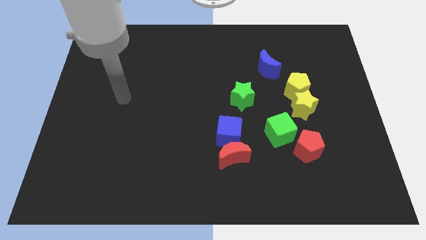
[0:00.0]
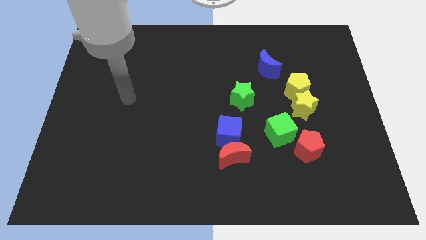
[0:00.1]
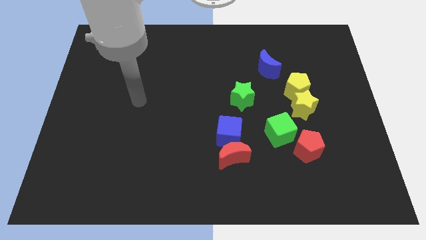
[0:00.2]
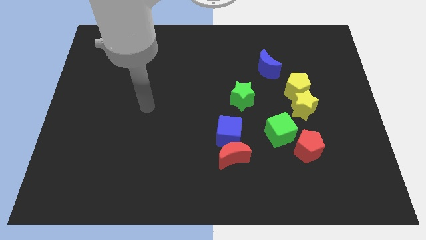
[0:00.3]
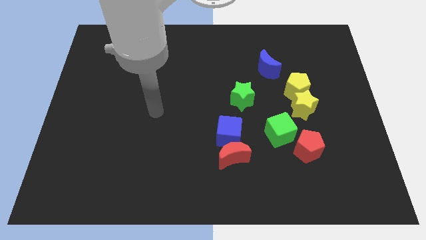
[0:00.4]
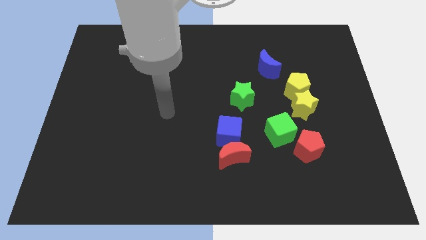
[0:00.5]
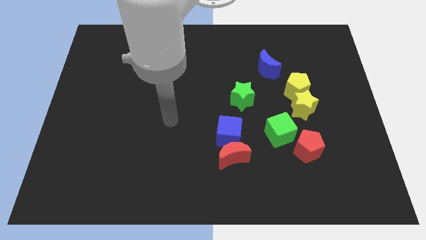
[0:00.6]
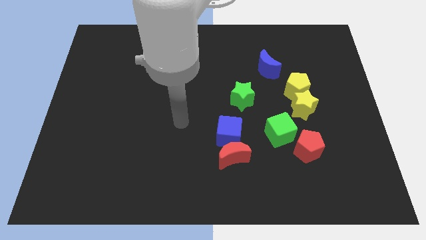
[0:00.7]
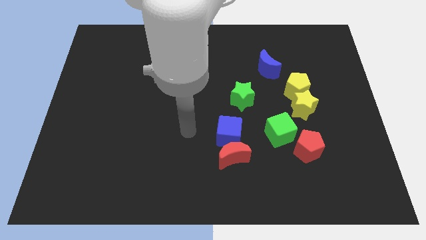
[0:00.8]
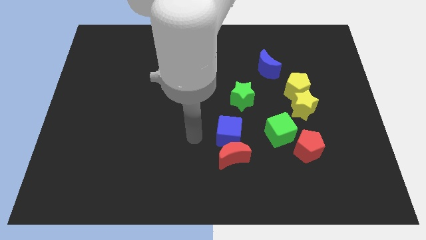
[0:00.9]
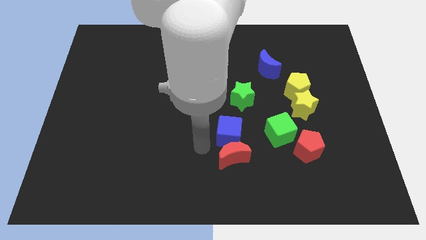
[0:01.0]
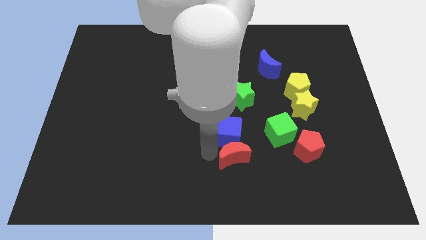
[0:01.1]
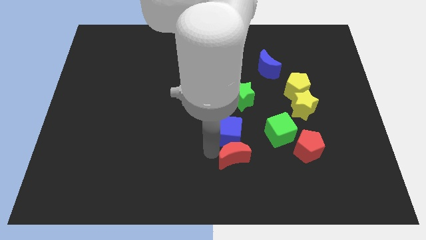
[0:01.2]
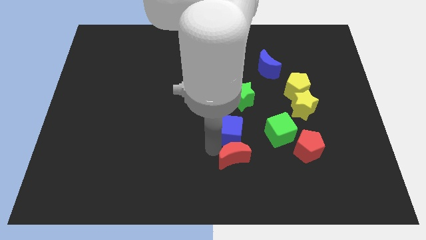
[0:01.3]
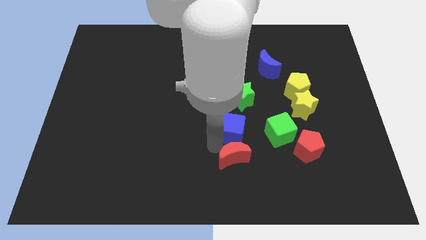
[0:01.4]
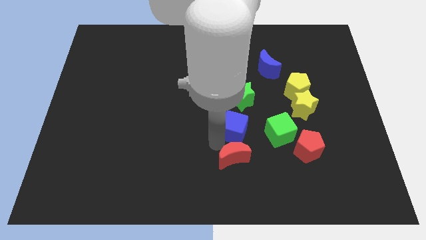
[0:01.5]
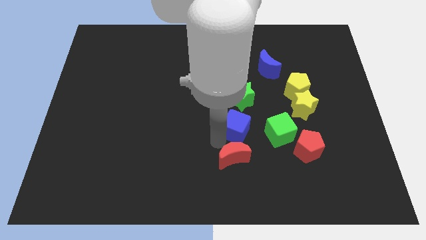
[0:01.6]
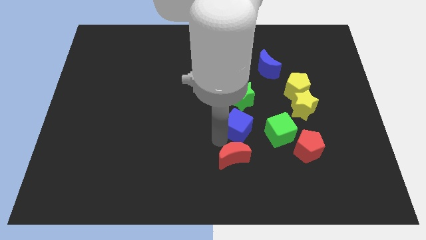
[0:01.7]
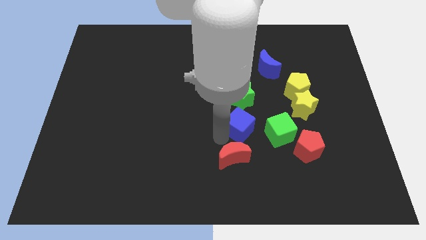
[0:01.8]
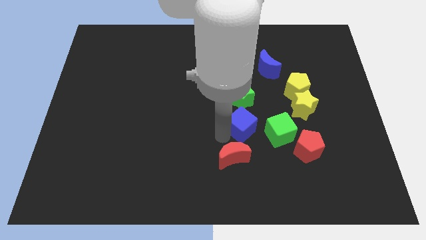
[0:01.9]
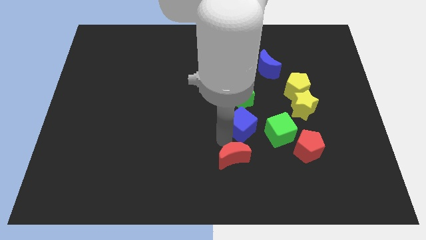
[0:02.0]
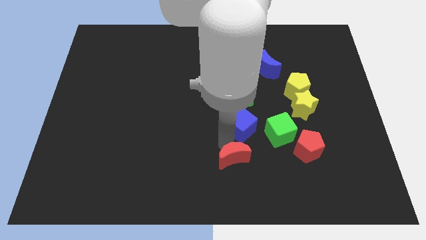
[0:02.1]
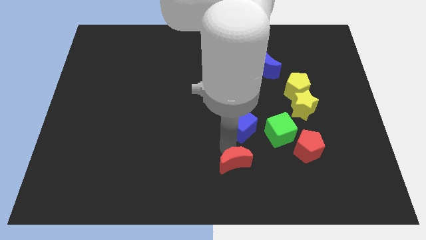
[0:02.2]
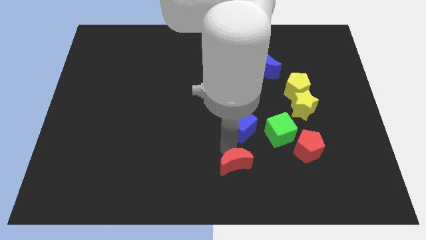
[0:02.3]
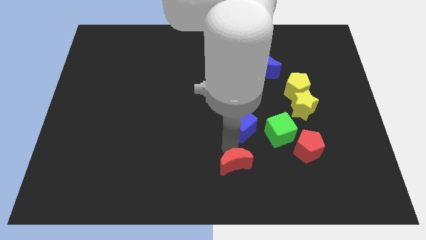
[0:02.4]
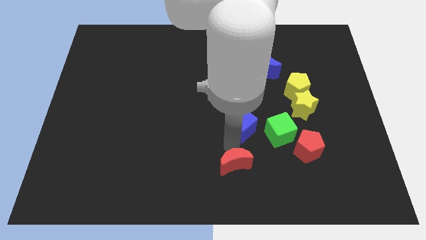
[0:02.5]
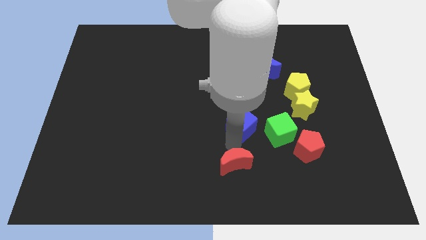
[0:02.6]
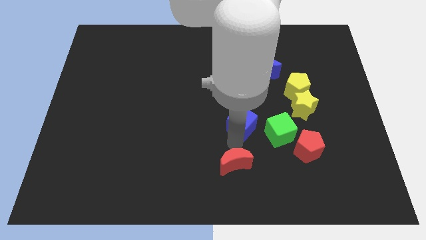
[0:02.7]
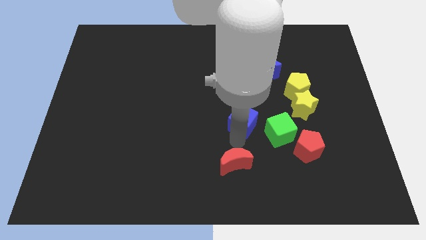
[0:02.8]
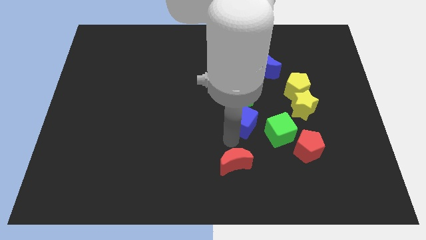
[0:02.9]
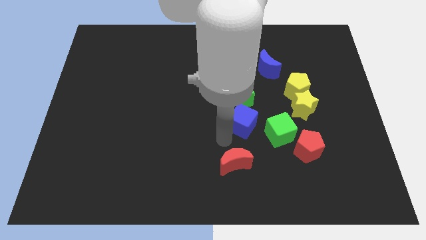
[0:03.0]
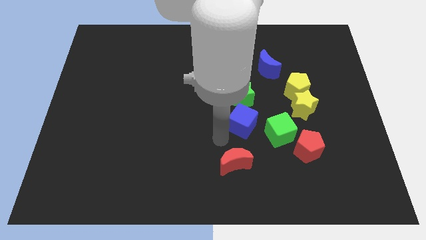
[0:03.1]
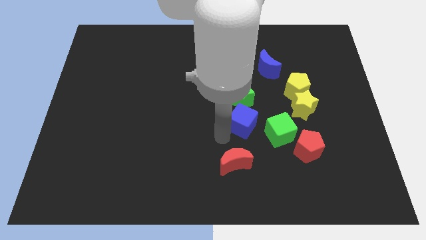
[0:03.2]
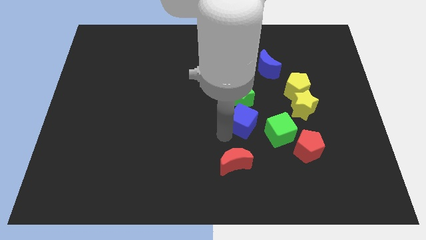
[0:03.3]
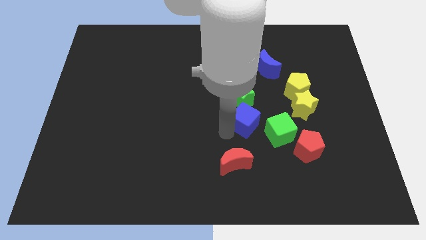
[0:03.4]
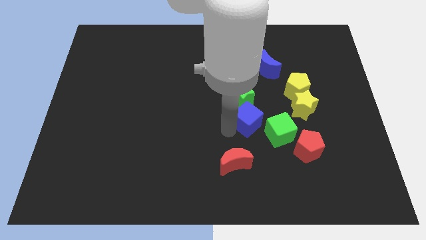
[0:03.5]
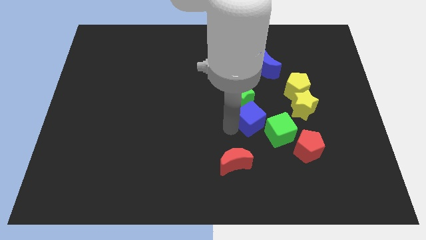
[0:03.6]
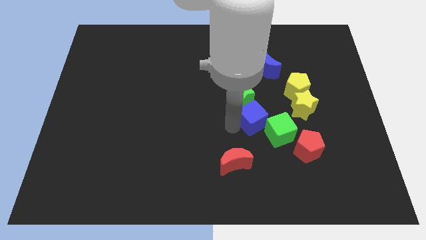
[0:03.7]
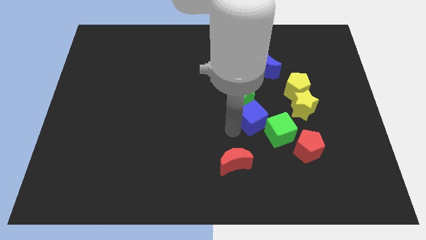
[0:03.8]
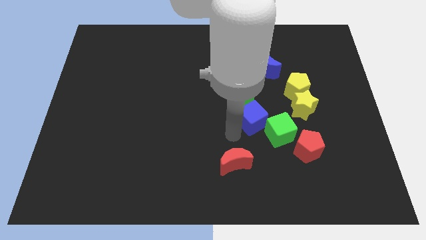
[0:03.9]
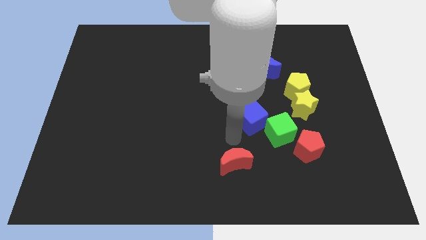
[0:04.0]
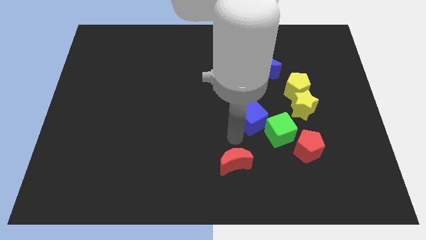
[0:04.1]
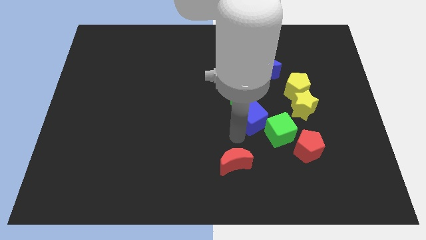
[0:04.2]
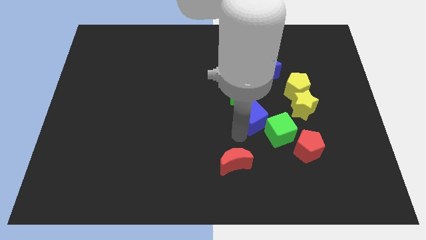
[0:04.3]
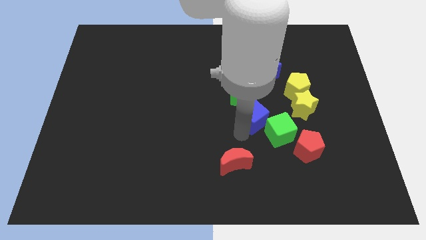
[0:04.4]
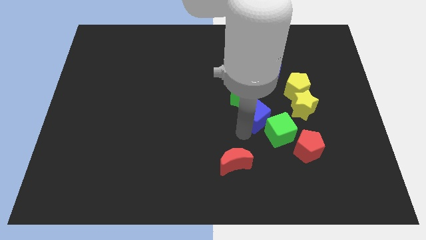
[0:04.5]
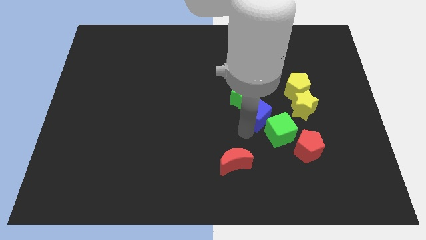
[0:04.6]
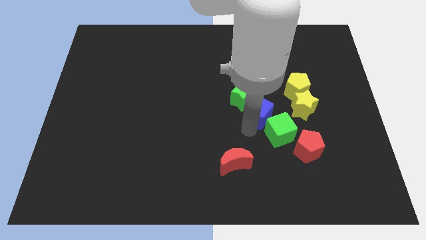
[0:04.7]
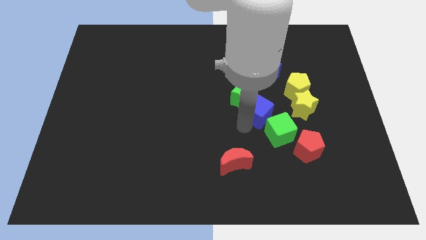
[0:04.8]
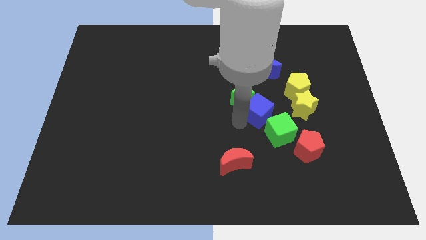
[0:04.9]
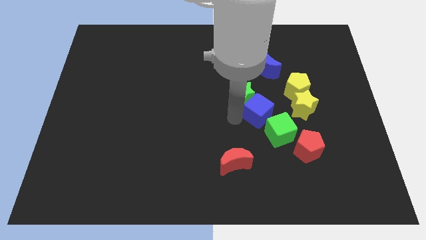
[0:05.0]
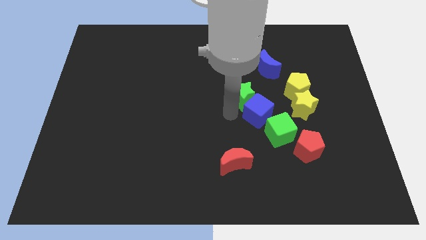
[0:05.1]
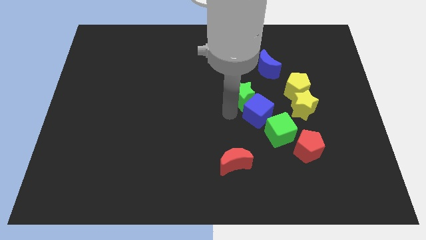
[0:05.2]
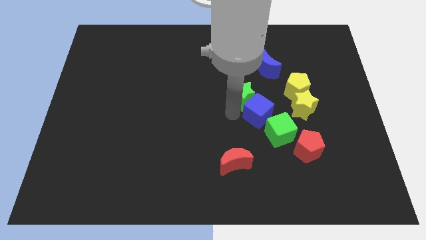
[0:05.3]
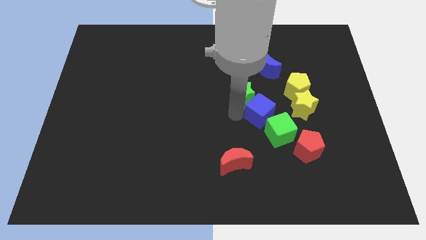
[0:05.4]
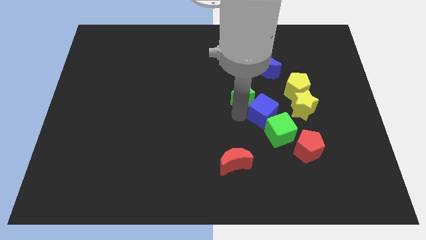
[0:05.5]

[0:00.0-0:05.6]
slide the blue cube to the right somewhat

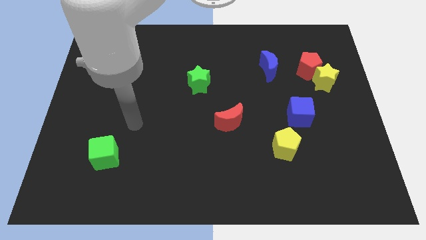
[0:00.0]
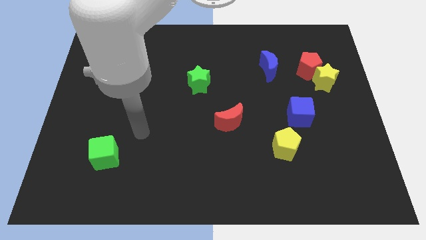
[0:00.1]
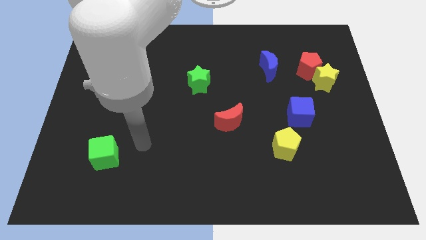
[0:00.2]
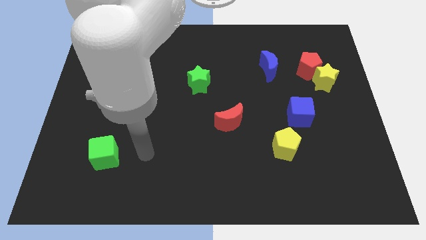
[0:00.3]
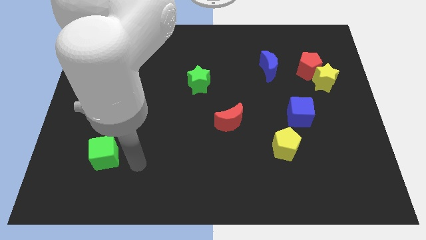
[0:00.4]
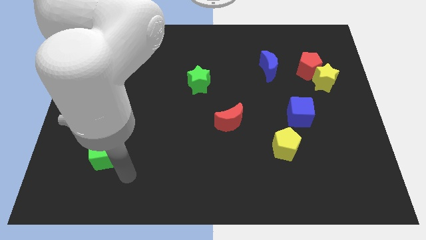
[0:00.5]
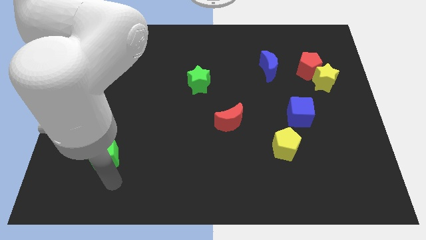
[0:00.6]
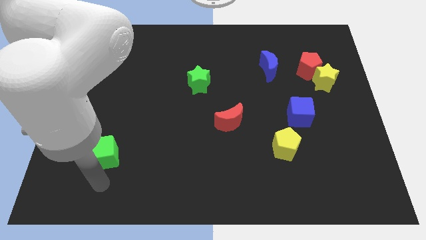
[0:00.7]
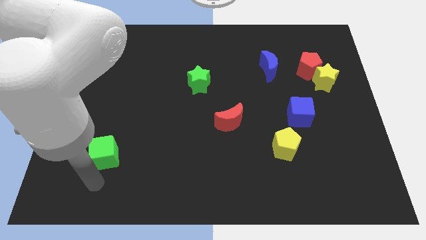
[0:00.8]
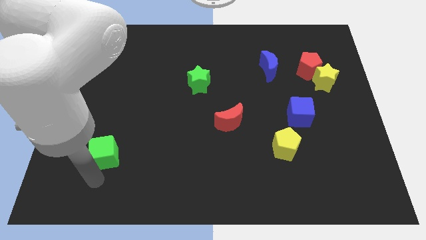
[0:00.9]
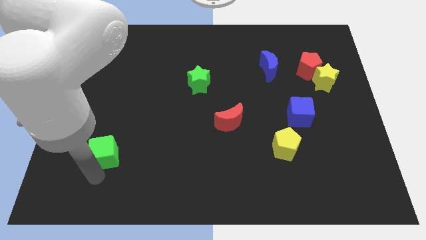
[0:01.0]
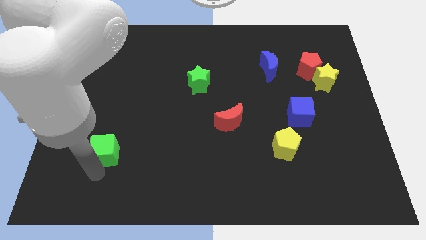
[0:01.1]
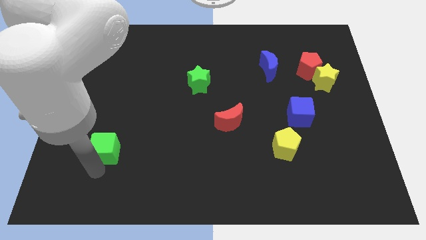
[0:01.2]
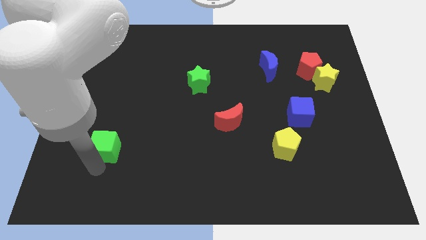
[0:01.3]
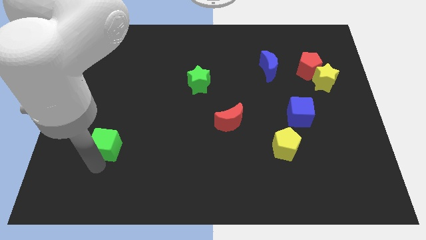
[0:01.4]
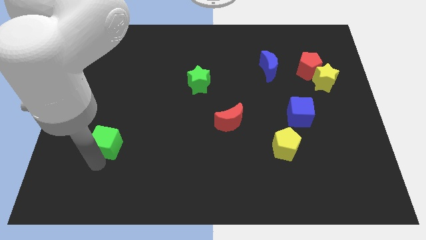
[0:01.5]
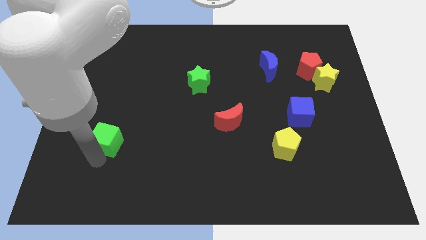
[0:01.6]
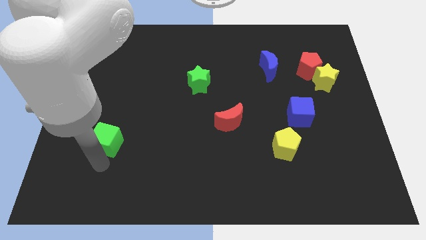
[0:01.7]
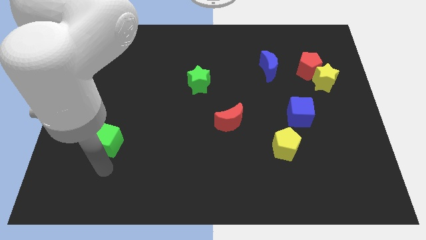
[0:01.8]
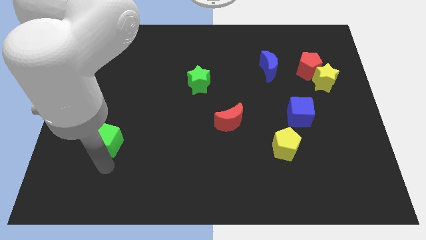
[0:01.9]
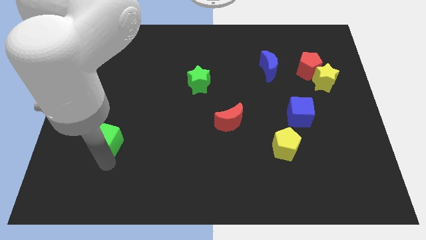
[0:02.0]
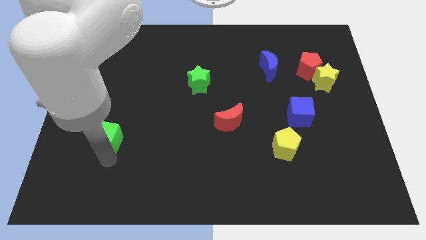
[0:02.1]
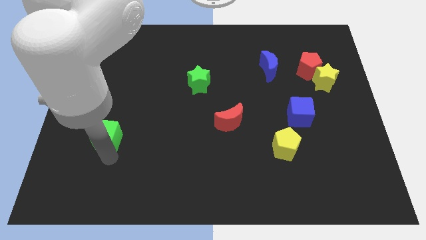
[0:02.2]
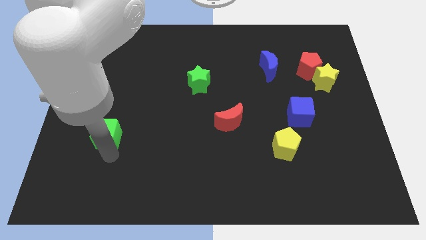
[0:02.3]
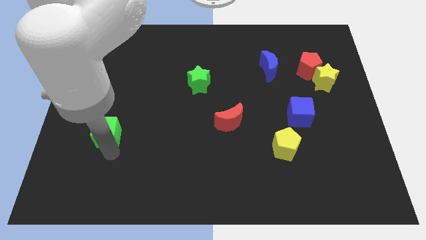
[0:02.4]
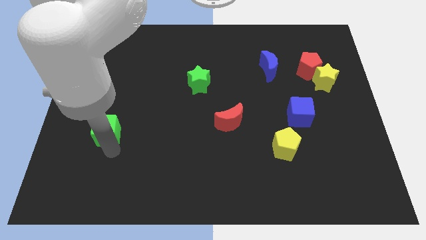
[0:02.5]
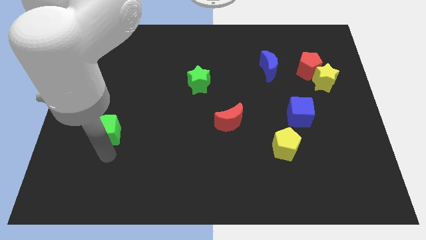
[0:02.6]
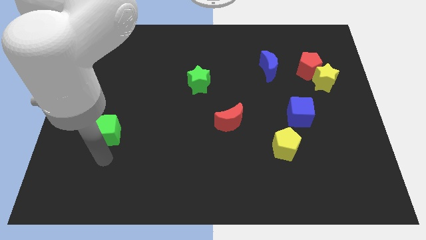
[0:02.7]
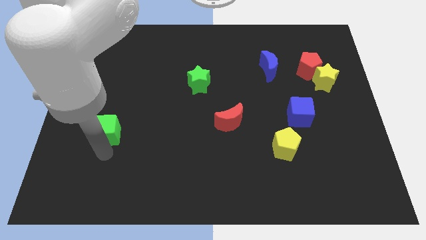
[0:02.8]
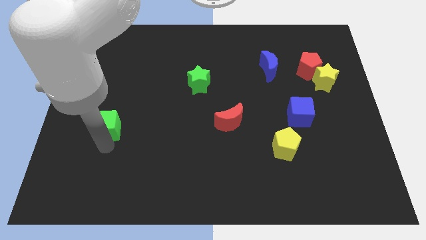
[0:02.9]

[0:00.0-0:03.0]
slide the green cube slightly up
